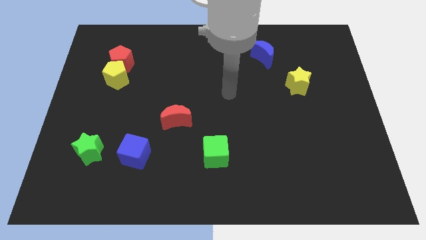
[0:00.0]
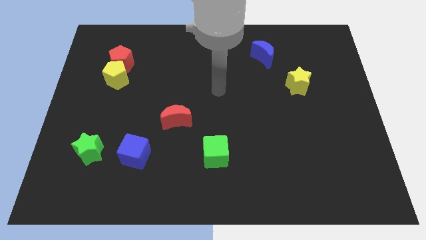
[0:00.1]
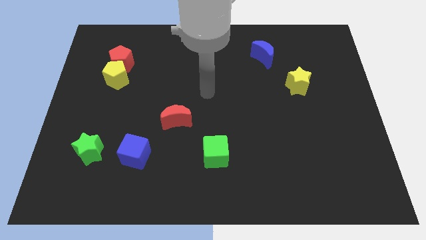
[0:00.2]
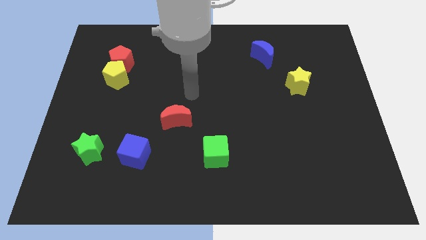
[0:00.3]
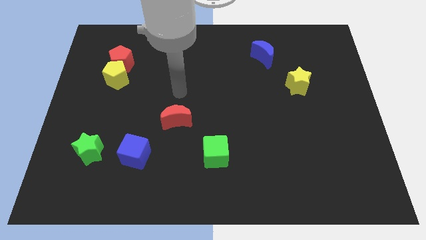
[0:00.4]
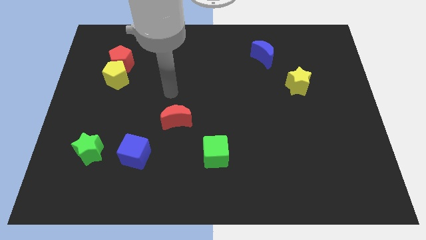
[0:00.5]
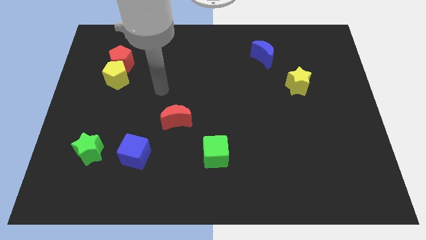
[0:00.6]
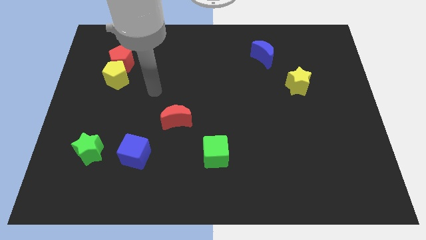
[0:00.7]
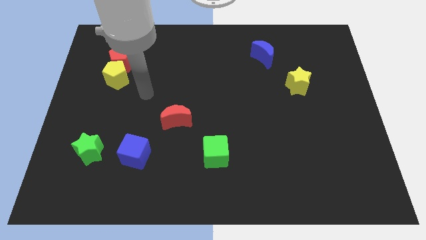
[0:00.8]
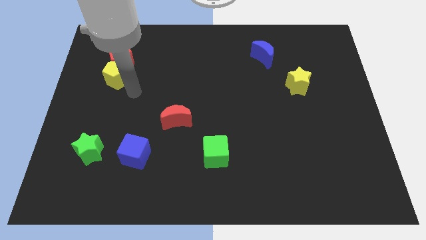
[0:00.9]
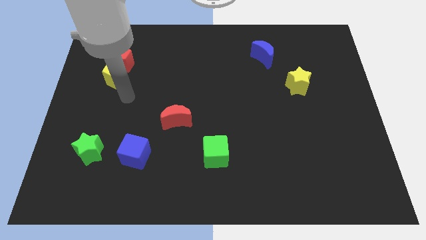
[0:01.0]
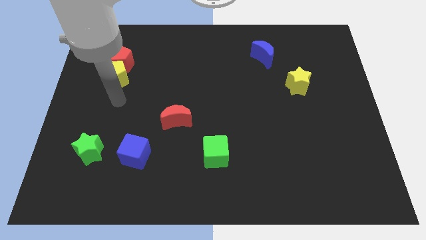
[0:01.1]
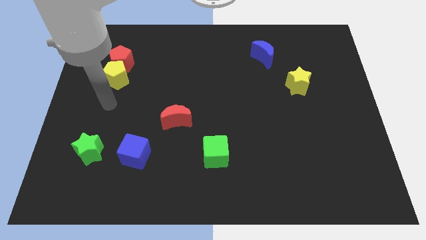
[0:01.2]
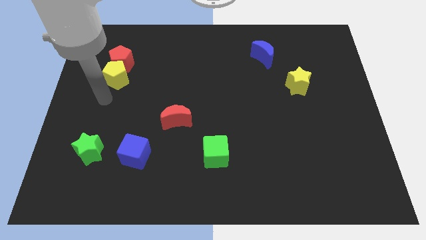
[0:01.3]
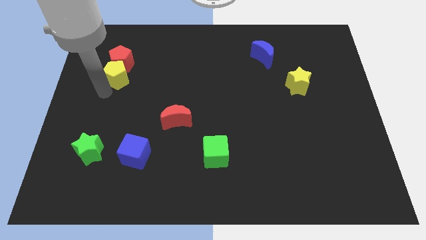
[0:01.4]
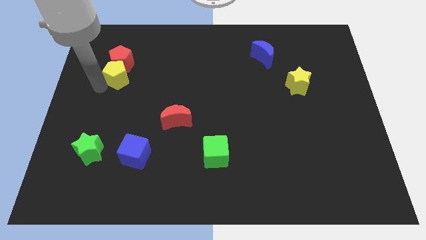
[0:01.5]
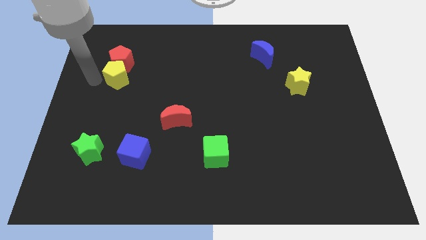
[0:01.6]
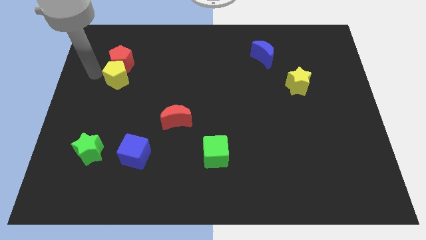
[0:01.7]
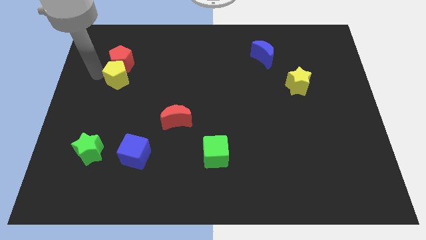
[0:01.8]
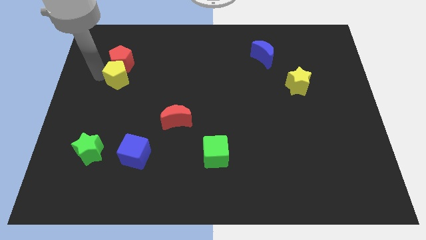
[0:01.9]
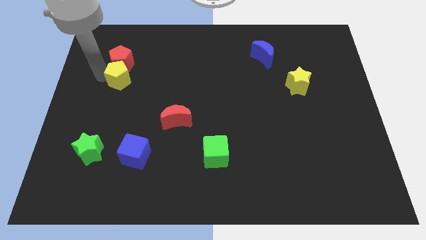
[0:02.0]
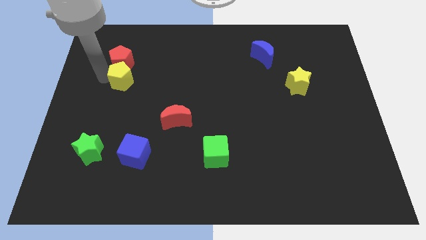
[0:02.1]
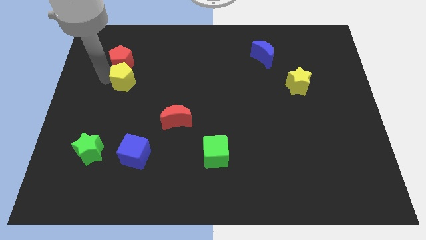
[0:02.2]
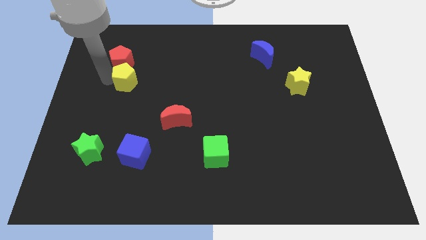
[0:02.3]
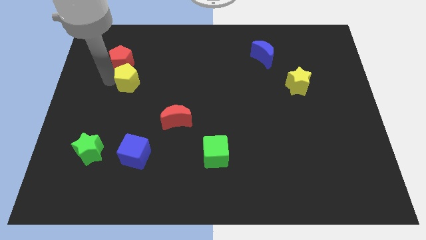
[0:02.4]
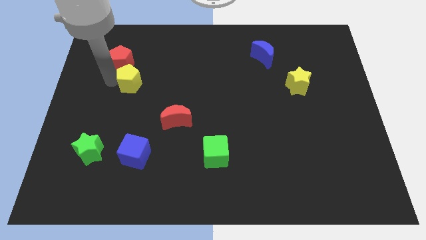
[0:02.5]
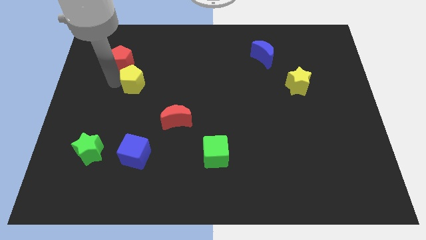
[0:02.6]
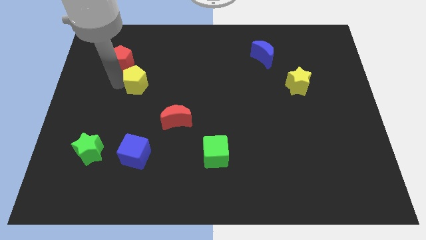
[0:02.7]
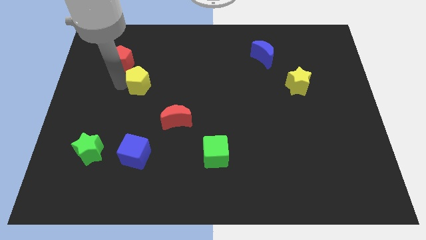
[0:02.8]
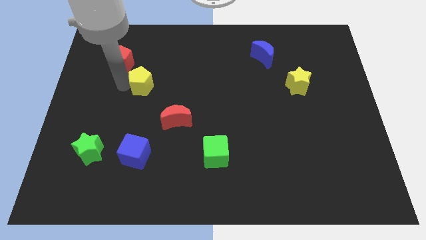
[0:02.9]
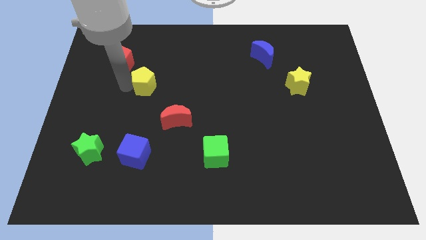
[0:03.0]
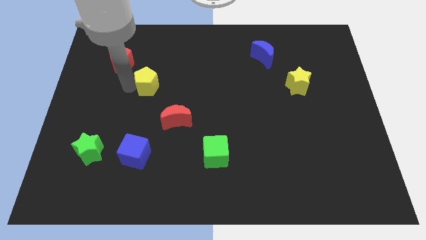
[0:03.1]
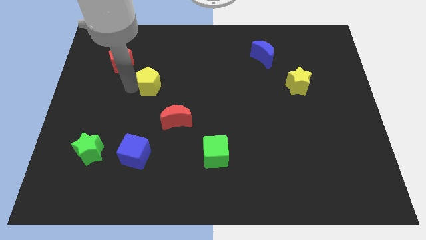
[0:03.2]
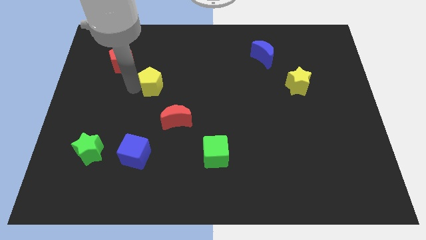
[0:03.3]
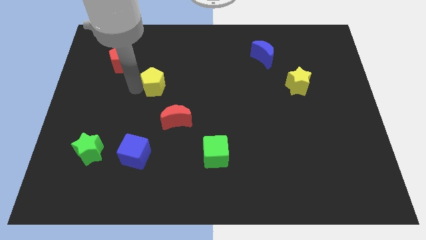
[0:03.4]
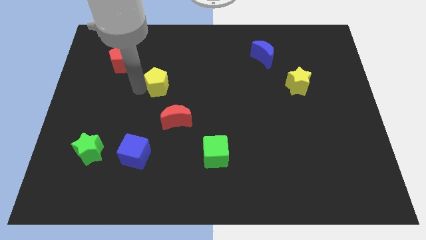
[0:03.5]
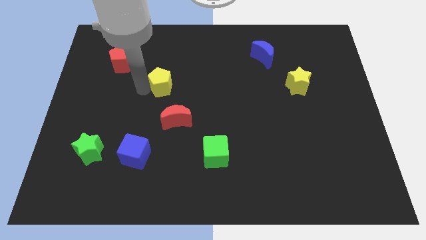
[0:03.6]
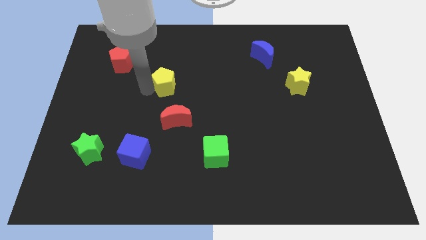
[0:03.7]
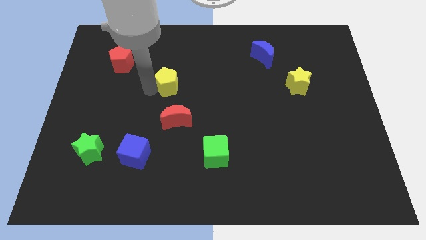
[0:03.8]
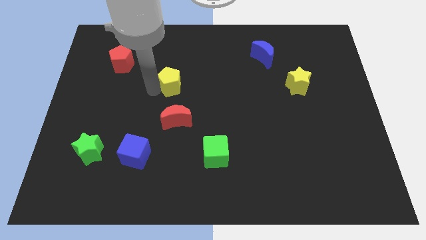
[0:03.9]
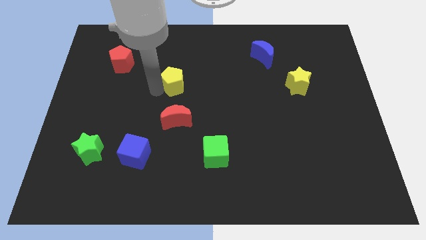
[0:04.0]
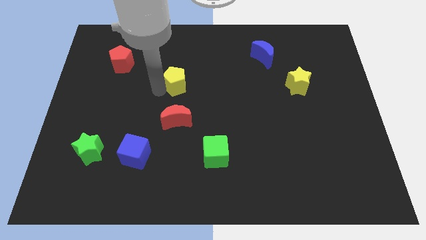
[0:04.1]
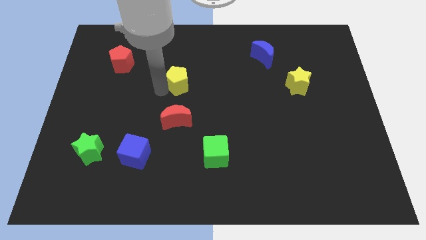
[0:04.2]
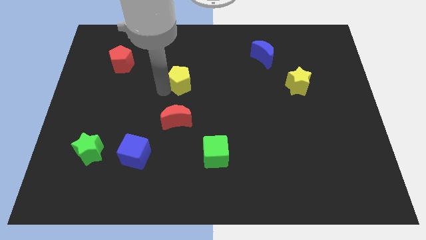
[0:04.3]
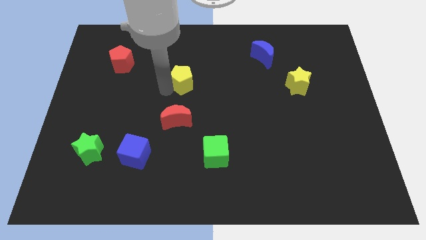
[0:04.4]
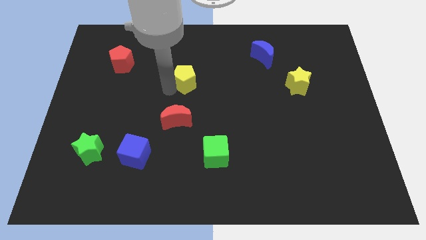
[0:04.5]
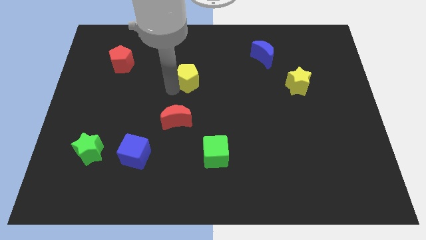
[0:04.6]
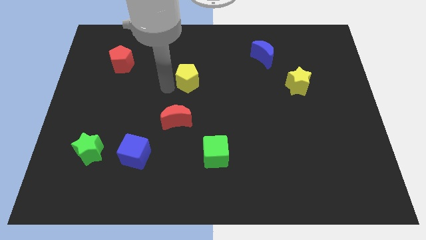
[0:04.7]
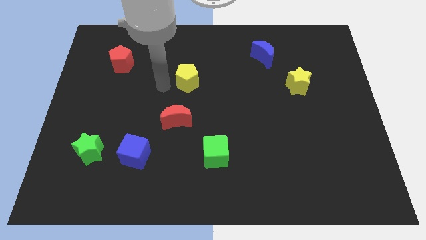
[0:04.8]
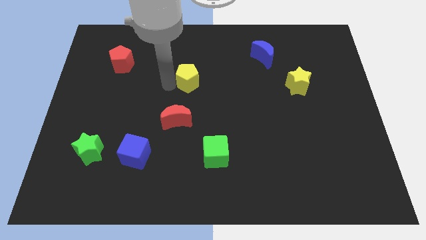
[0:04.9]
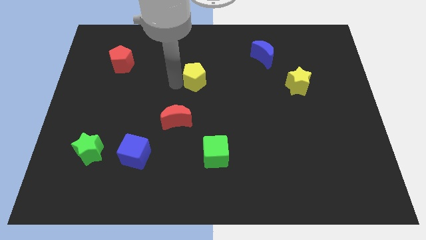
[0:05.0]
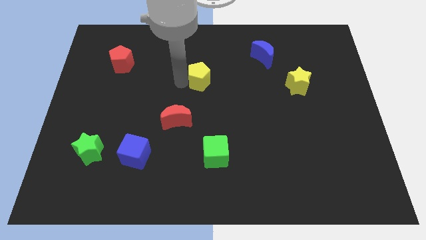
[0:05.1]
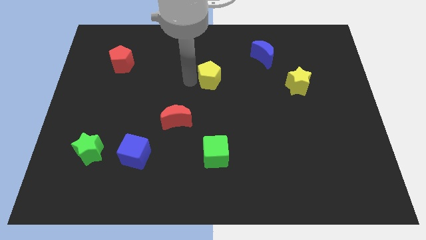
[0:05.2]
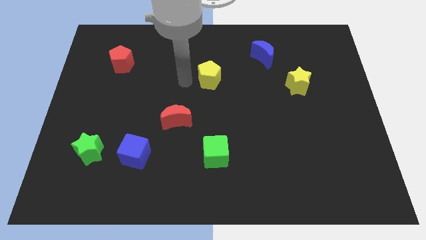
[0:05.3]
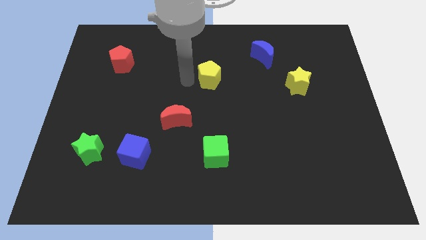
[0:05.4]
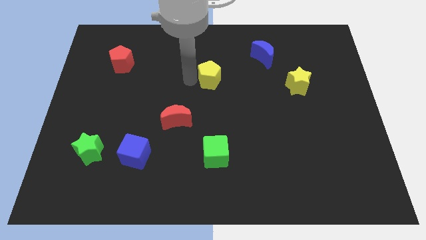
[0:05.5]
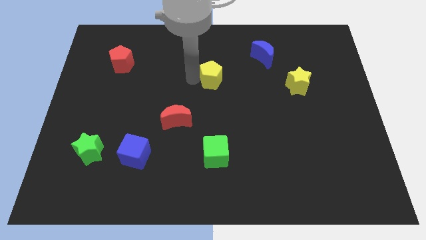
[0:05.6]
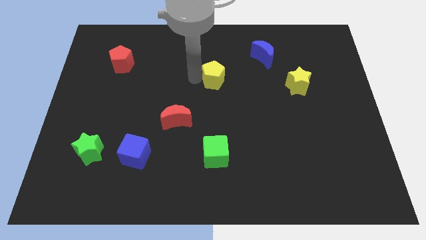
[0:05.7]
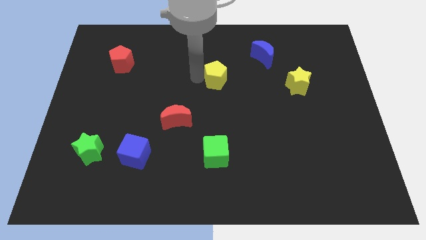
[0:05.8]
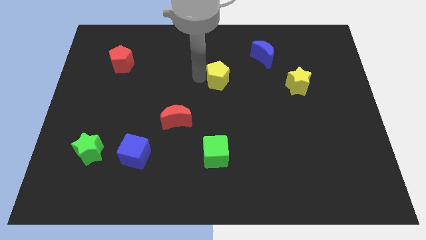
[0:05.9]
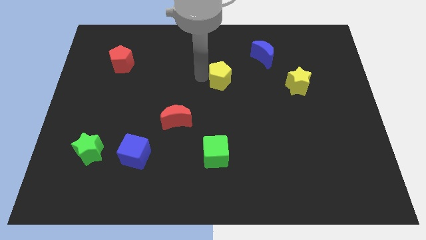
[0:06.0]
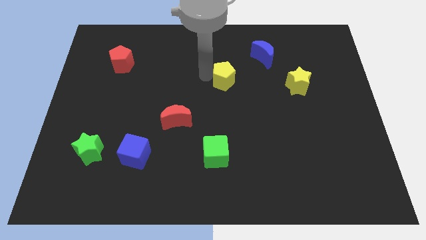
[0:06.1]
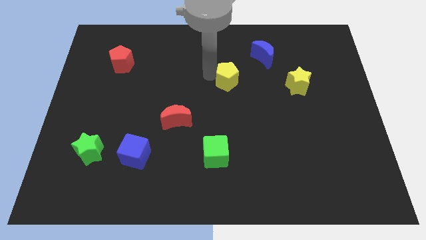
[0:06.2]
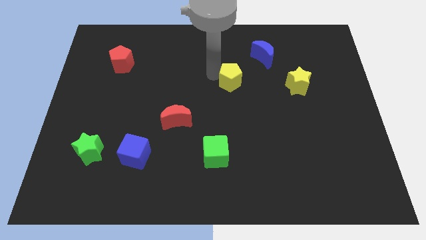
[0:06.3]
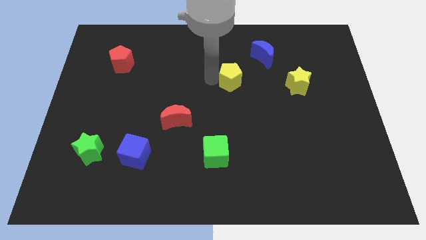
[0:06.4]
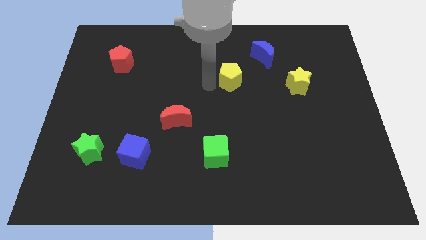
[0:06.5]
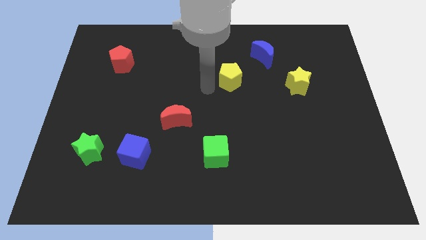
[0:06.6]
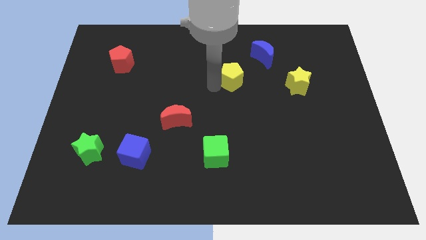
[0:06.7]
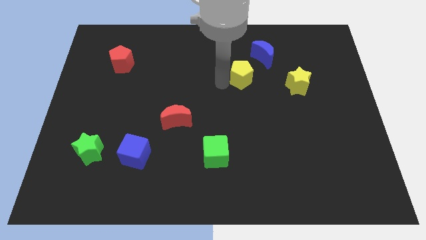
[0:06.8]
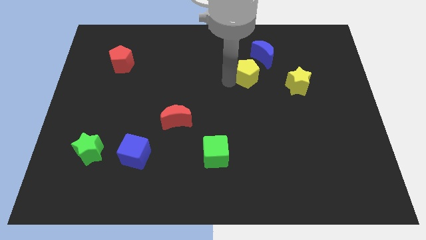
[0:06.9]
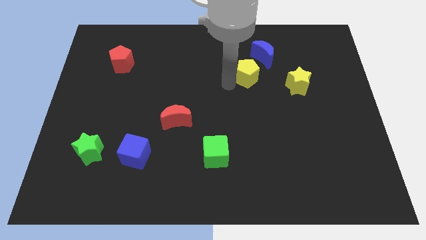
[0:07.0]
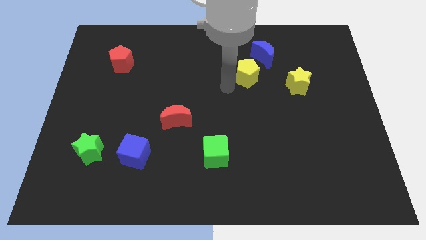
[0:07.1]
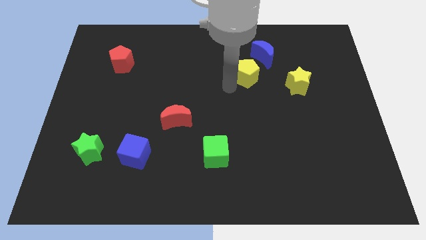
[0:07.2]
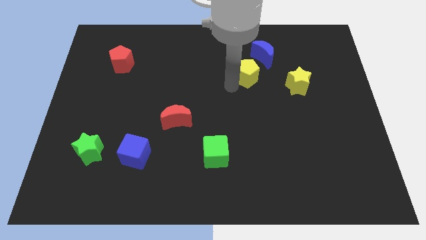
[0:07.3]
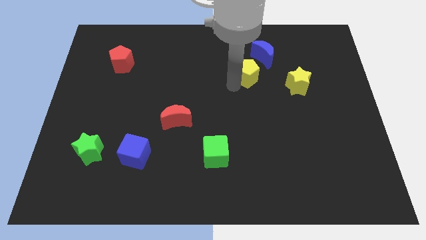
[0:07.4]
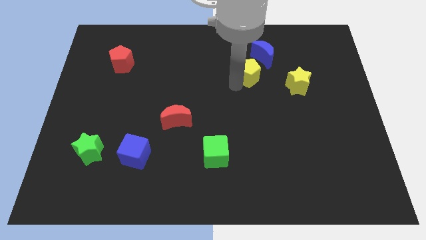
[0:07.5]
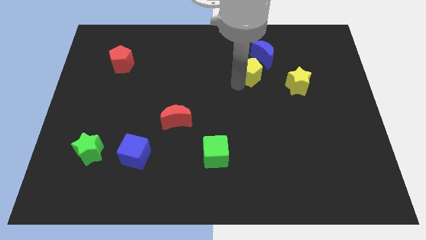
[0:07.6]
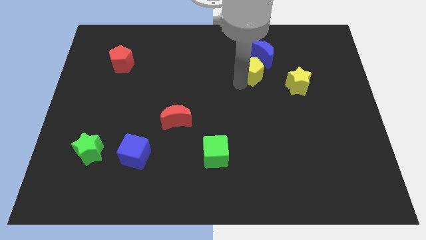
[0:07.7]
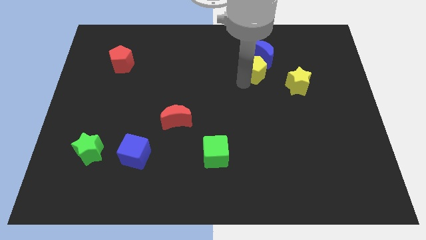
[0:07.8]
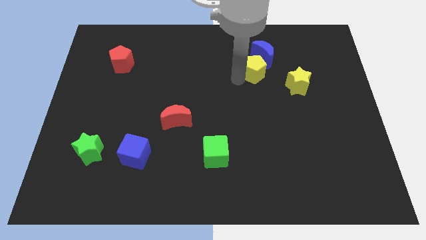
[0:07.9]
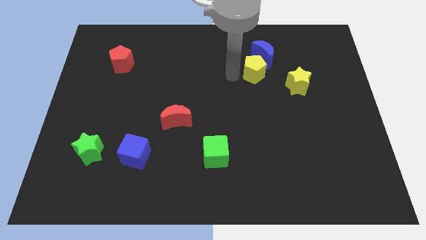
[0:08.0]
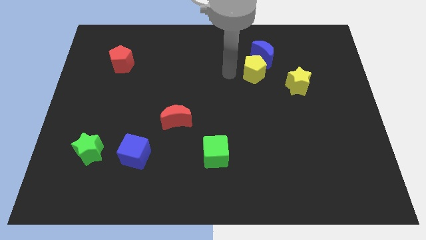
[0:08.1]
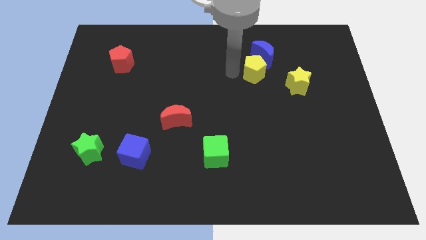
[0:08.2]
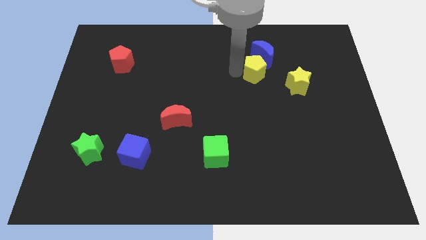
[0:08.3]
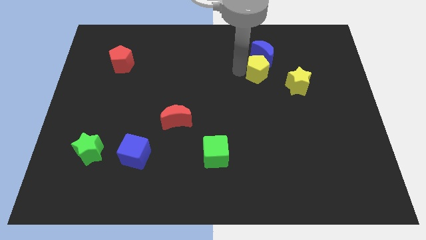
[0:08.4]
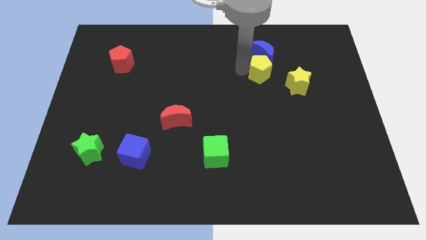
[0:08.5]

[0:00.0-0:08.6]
move the yellow pentagon to the bottom right of the blue moon
